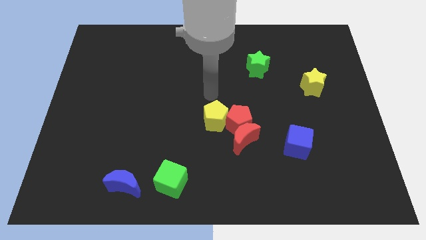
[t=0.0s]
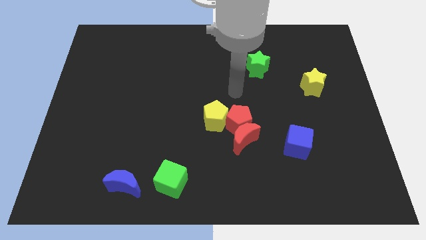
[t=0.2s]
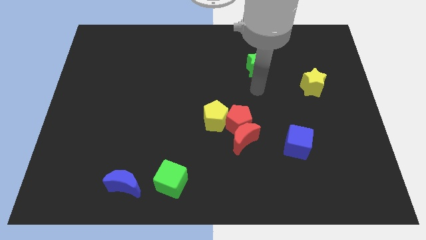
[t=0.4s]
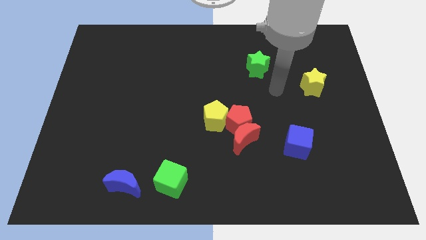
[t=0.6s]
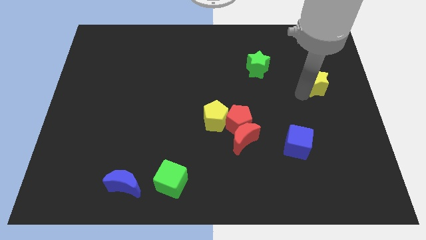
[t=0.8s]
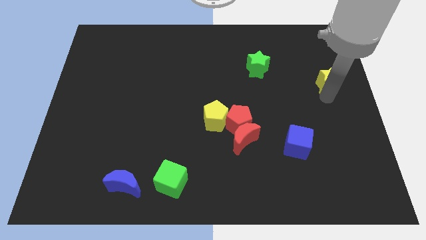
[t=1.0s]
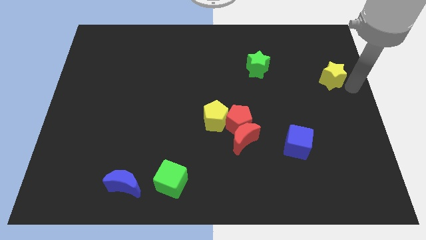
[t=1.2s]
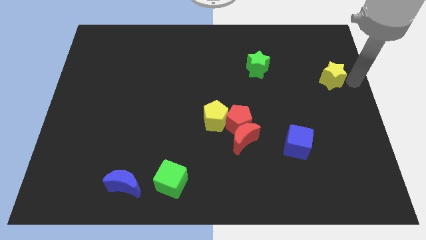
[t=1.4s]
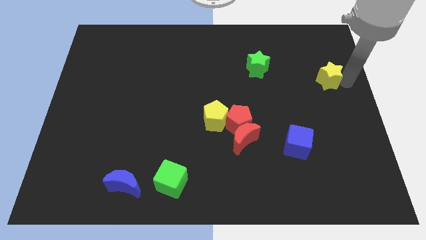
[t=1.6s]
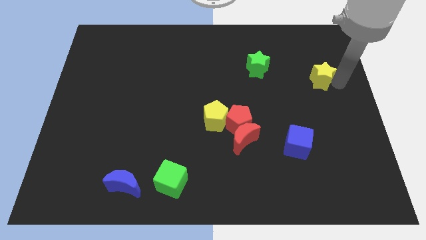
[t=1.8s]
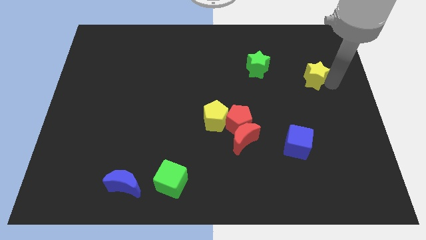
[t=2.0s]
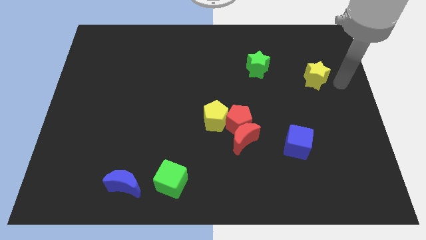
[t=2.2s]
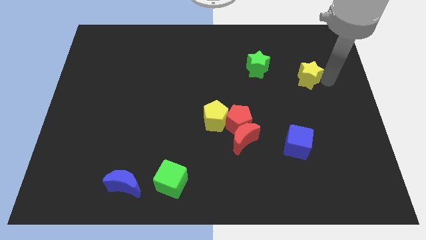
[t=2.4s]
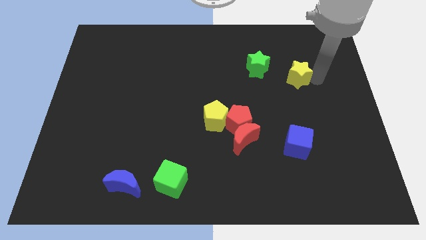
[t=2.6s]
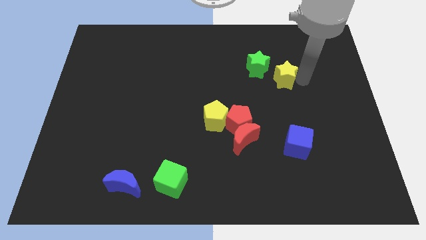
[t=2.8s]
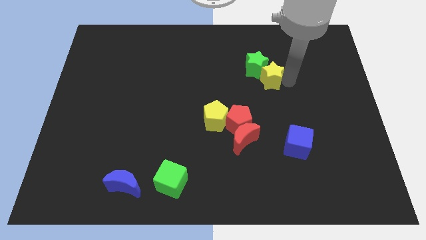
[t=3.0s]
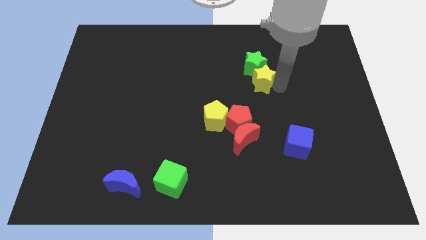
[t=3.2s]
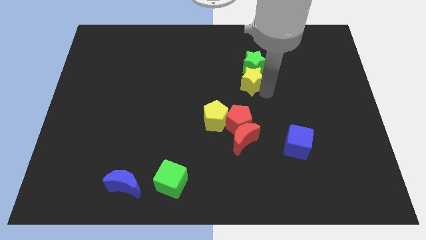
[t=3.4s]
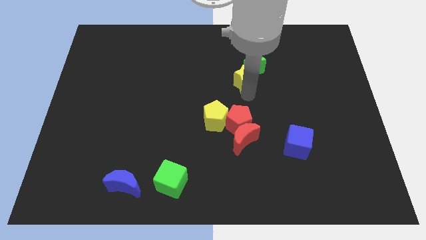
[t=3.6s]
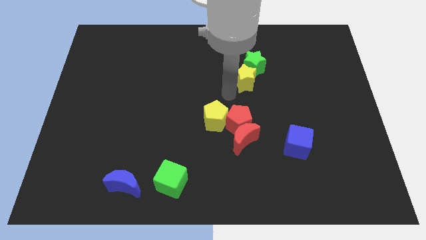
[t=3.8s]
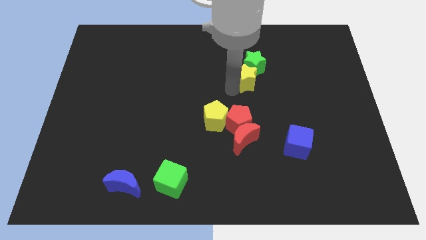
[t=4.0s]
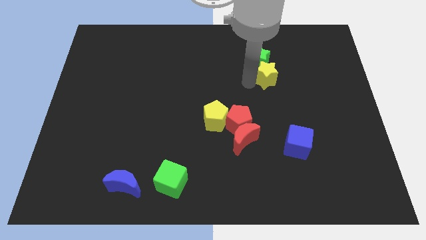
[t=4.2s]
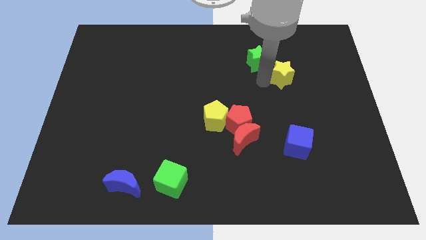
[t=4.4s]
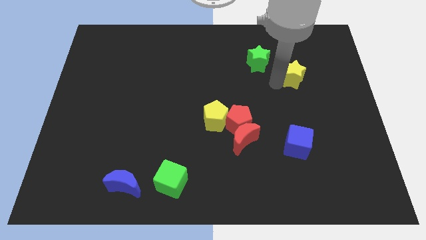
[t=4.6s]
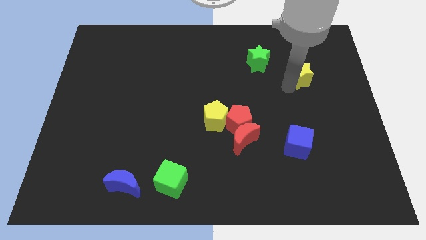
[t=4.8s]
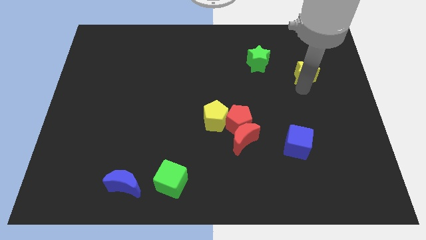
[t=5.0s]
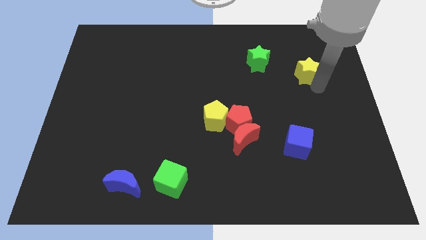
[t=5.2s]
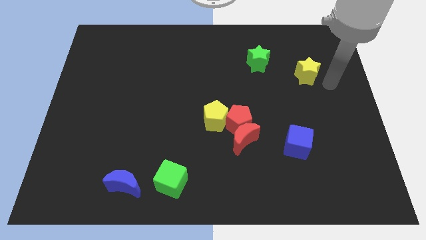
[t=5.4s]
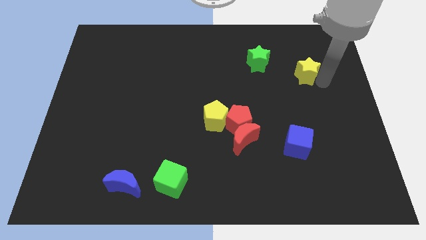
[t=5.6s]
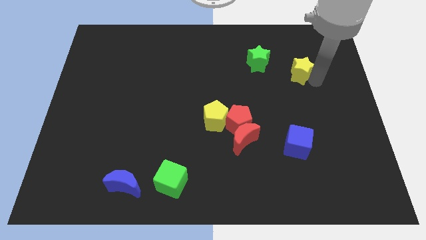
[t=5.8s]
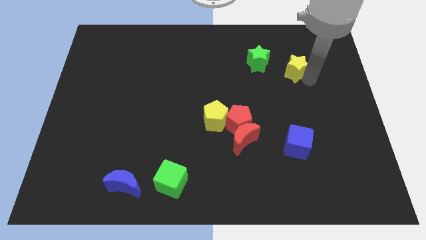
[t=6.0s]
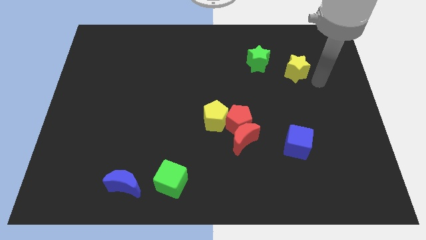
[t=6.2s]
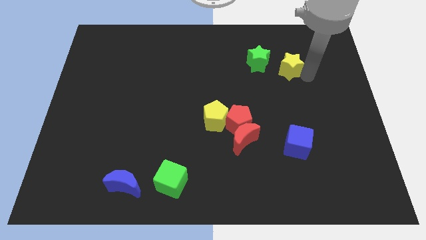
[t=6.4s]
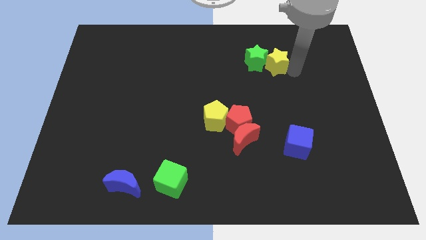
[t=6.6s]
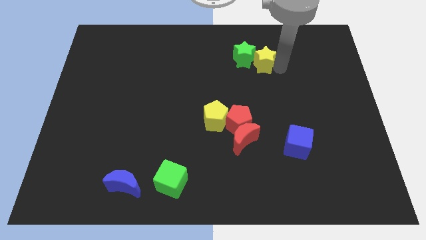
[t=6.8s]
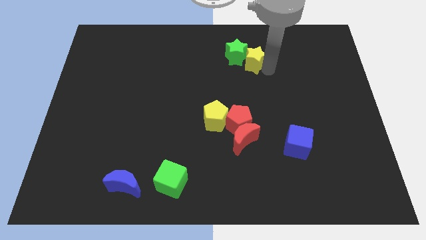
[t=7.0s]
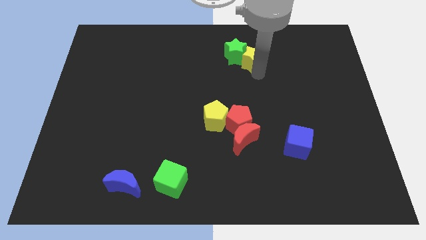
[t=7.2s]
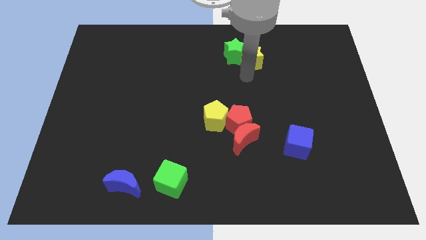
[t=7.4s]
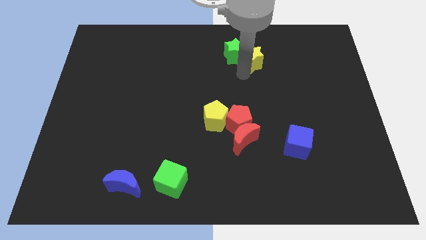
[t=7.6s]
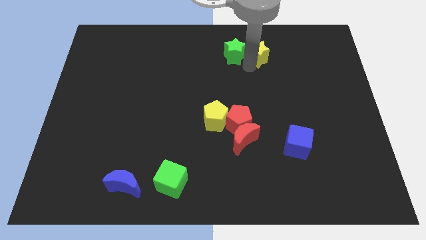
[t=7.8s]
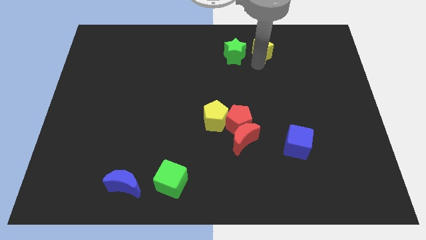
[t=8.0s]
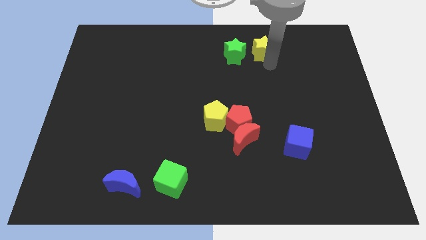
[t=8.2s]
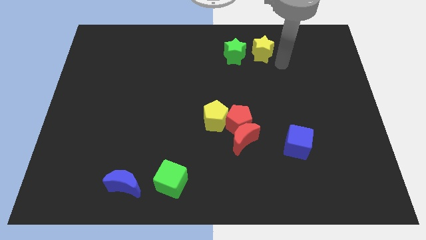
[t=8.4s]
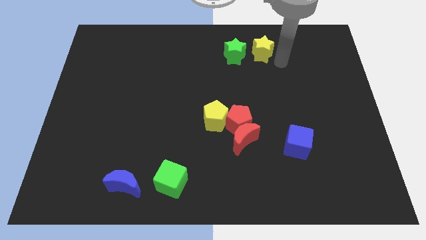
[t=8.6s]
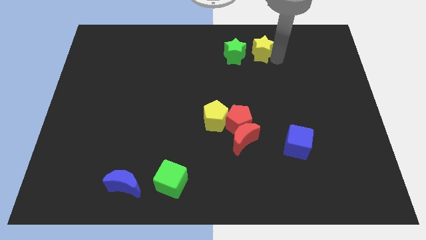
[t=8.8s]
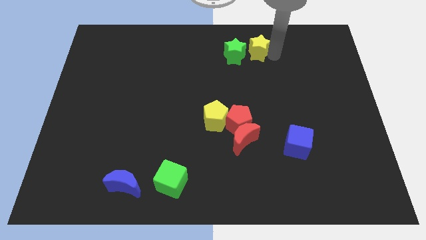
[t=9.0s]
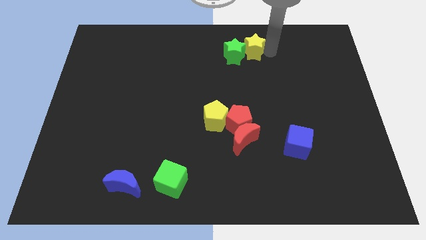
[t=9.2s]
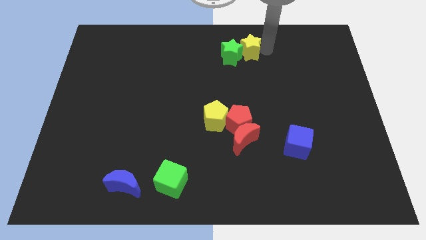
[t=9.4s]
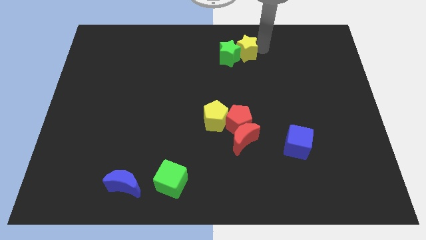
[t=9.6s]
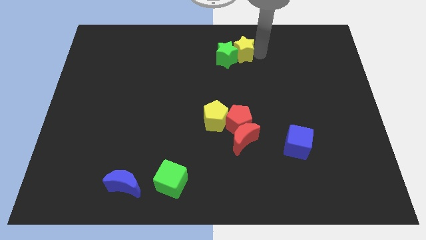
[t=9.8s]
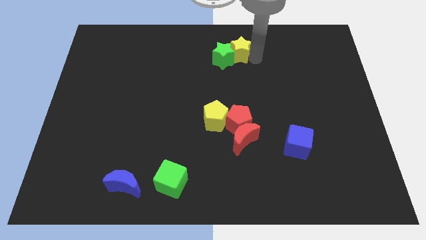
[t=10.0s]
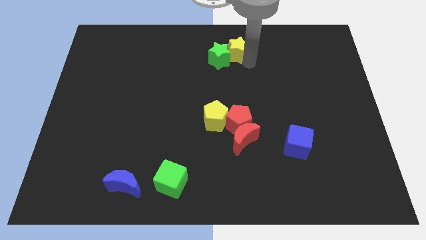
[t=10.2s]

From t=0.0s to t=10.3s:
move the yellow star to the top side

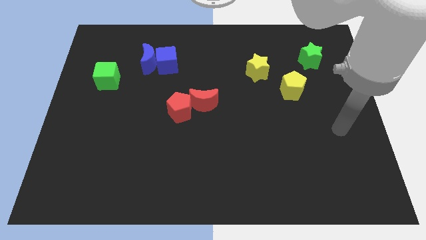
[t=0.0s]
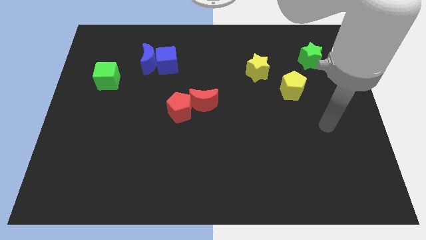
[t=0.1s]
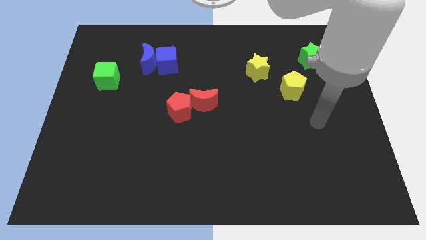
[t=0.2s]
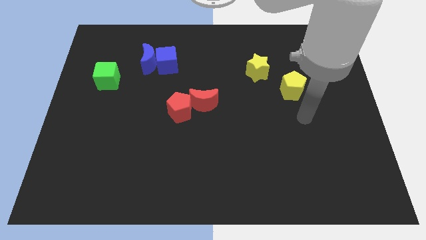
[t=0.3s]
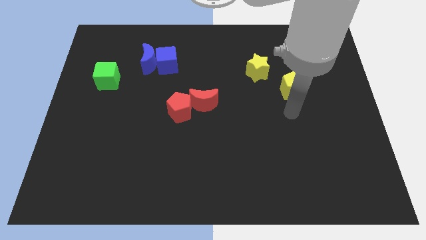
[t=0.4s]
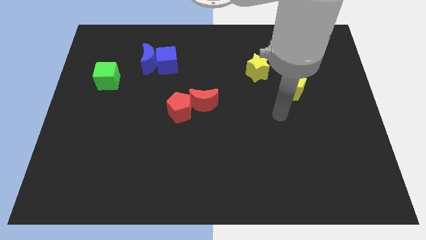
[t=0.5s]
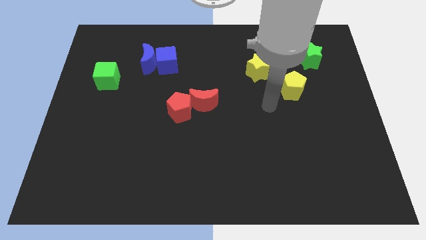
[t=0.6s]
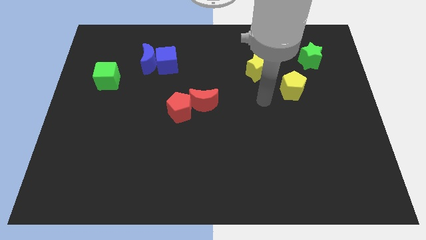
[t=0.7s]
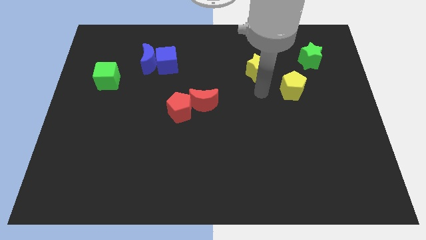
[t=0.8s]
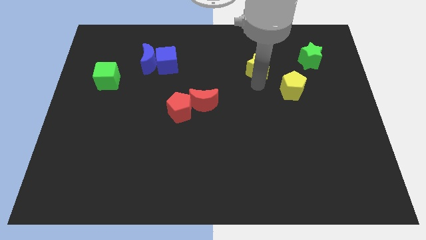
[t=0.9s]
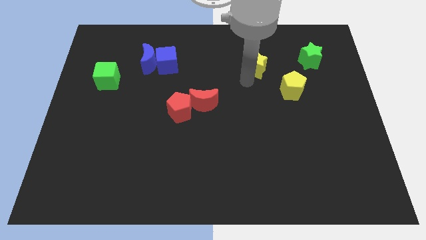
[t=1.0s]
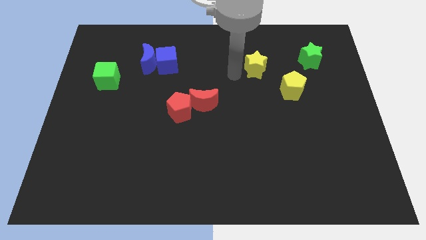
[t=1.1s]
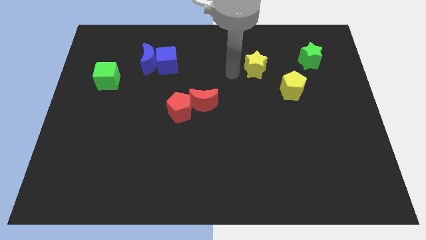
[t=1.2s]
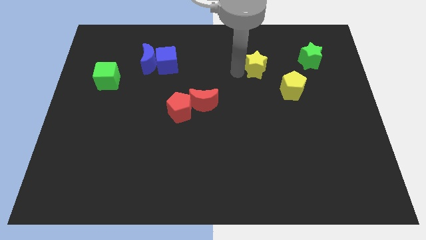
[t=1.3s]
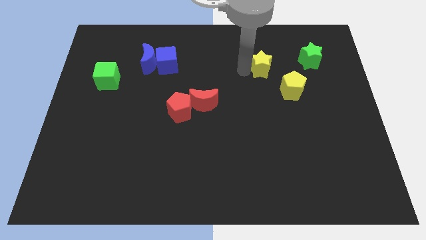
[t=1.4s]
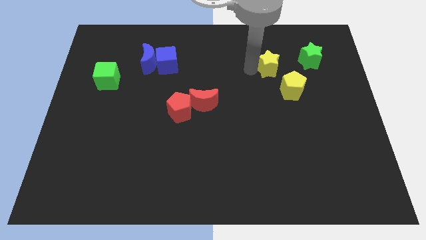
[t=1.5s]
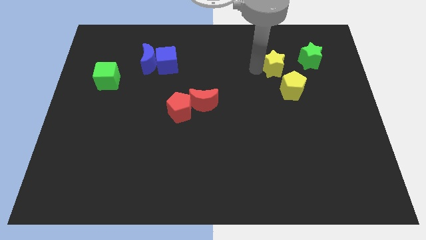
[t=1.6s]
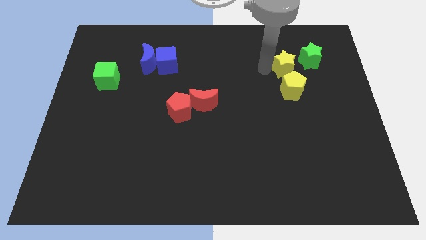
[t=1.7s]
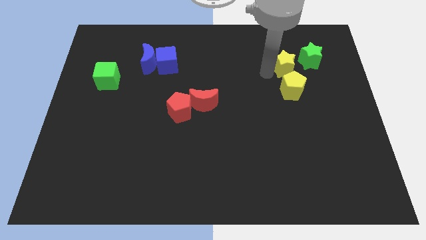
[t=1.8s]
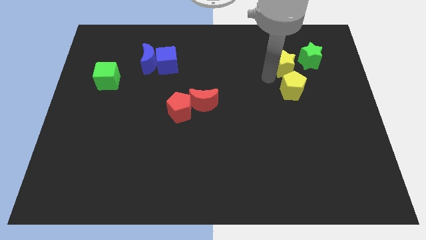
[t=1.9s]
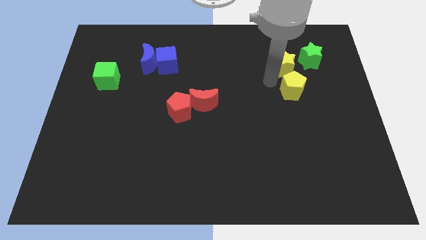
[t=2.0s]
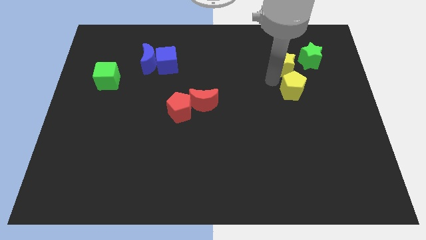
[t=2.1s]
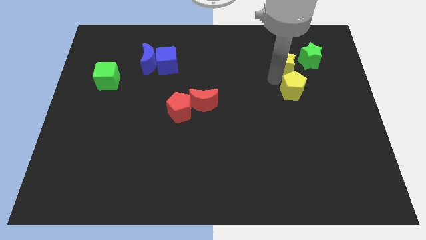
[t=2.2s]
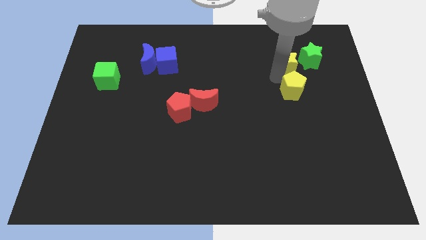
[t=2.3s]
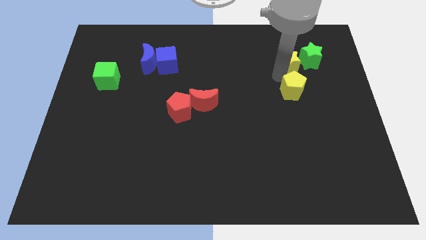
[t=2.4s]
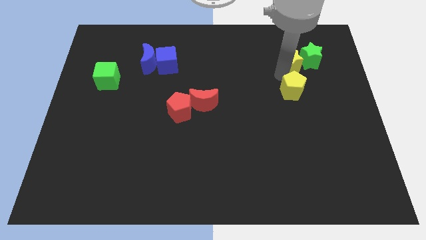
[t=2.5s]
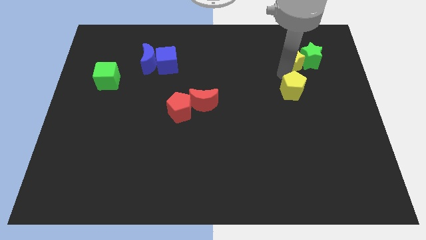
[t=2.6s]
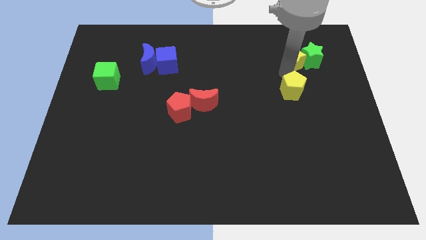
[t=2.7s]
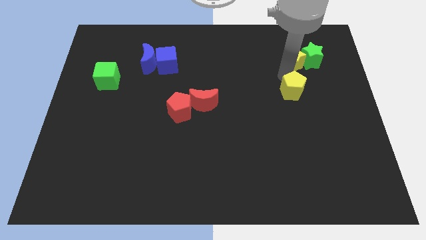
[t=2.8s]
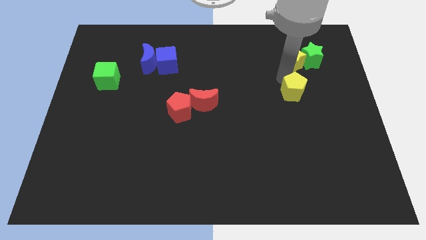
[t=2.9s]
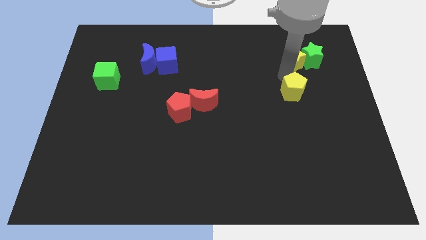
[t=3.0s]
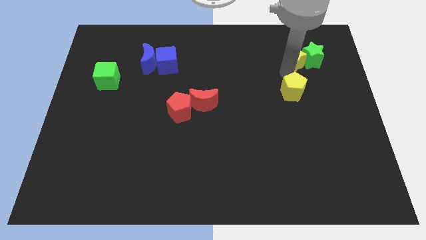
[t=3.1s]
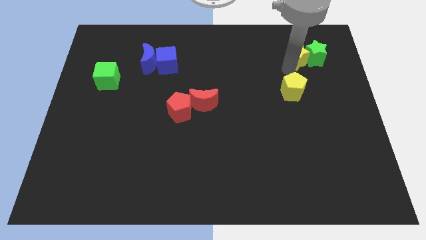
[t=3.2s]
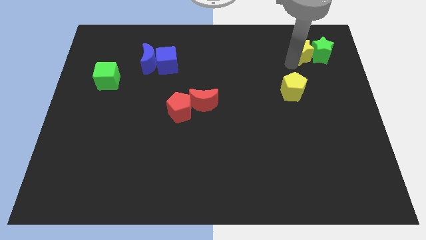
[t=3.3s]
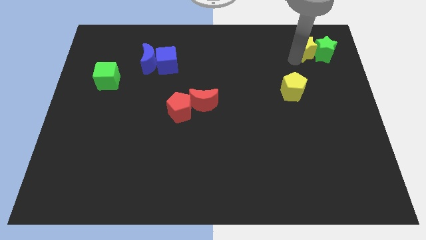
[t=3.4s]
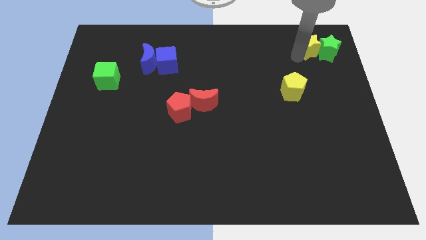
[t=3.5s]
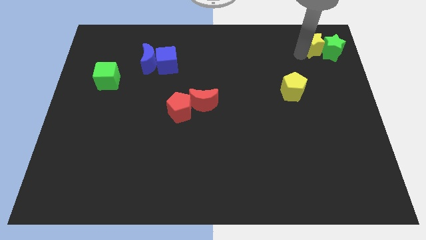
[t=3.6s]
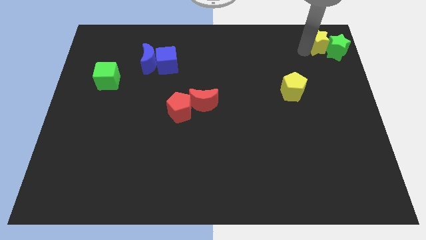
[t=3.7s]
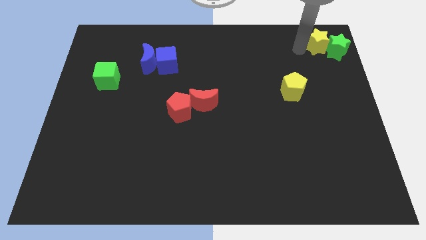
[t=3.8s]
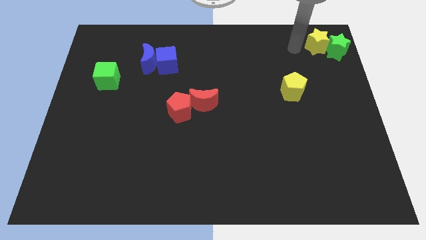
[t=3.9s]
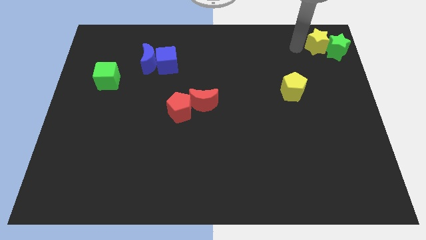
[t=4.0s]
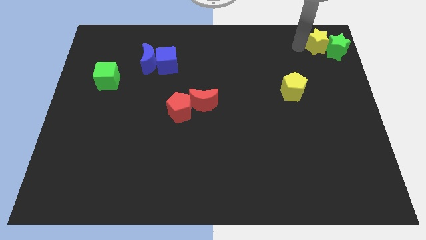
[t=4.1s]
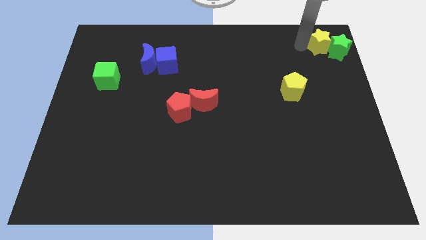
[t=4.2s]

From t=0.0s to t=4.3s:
push the yellow star to the upper right corner
